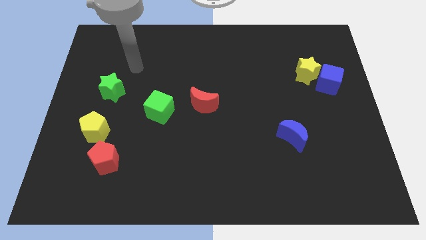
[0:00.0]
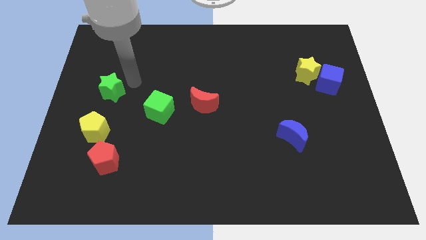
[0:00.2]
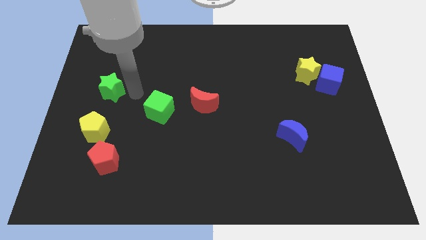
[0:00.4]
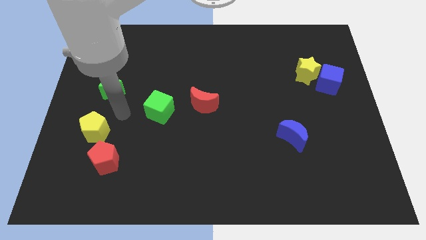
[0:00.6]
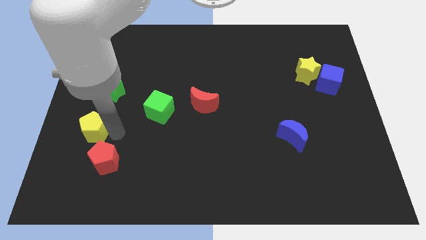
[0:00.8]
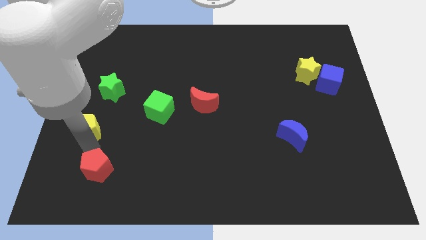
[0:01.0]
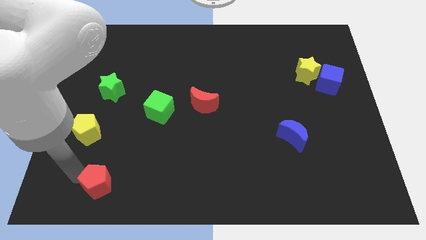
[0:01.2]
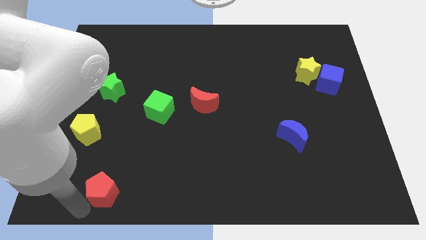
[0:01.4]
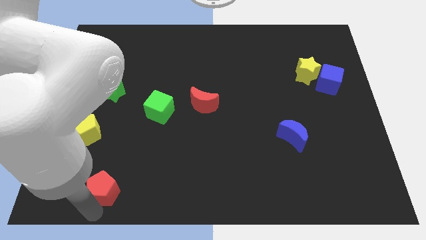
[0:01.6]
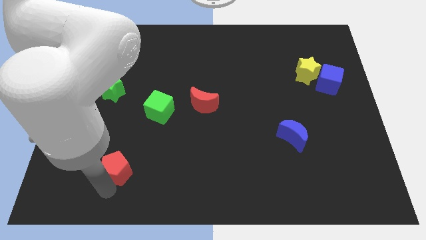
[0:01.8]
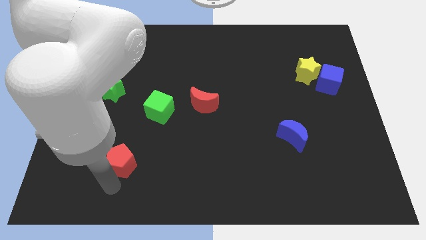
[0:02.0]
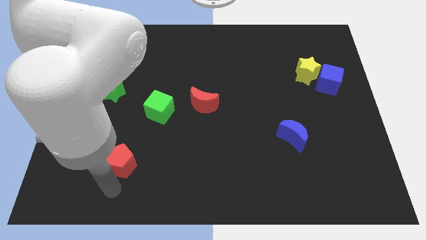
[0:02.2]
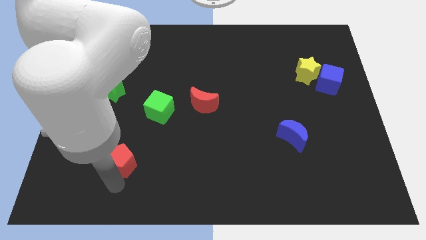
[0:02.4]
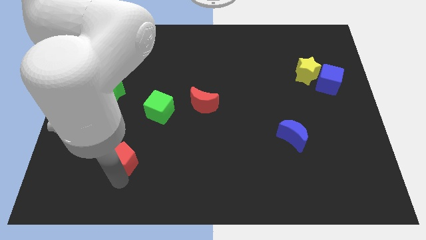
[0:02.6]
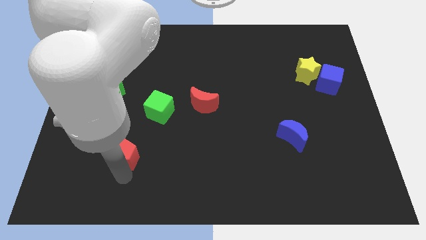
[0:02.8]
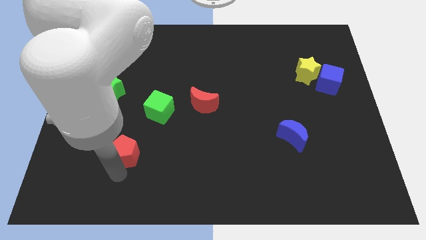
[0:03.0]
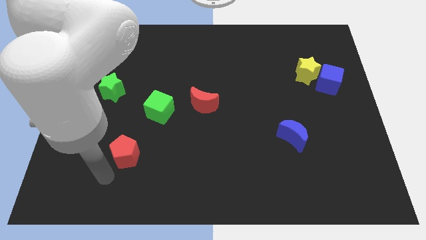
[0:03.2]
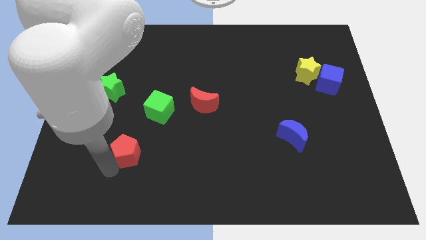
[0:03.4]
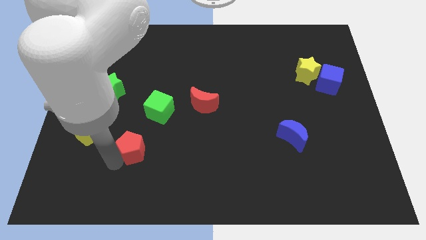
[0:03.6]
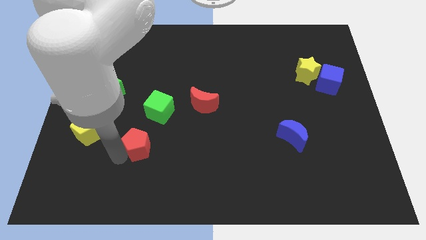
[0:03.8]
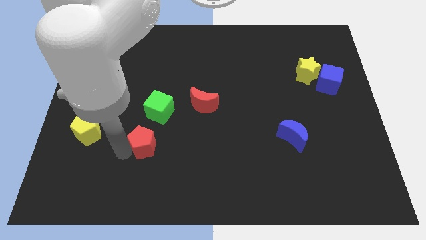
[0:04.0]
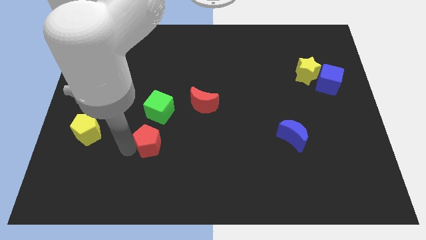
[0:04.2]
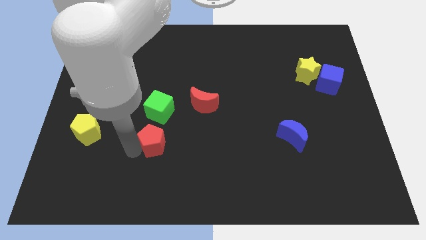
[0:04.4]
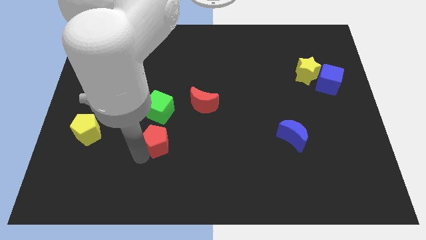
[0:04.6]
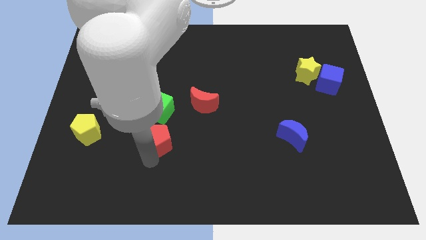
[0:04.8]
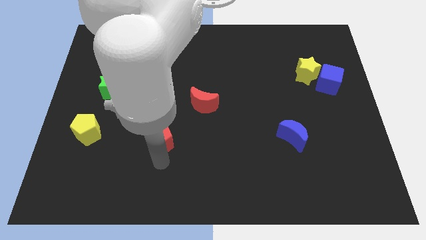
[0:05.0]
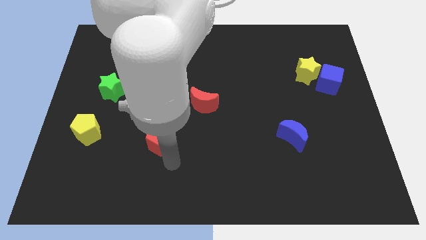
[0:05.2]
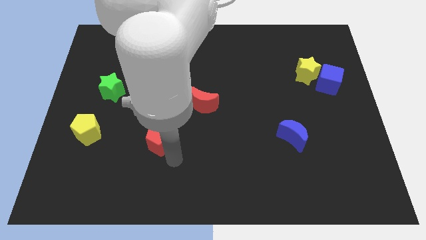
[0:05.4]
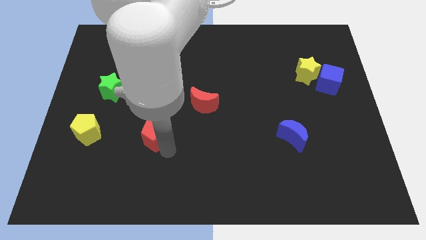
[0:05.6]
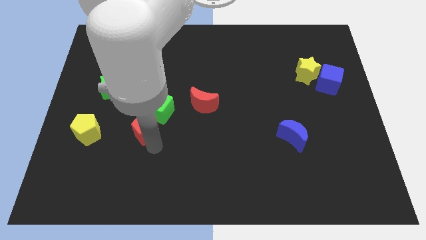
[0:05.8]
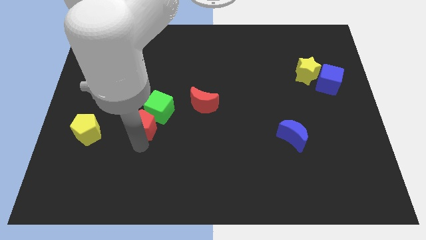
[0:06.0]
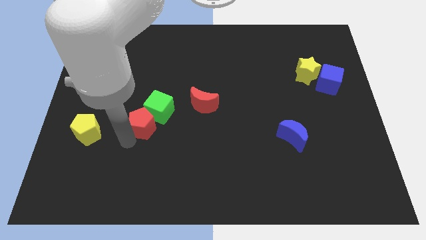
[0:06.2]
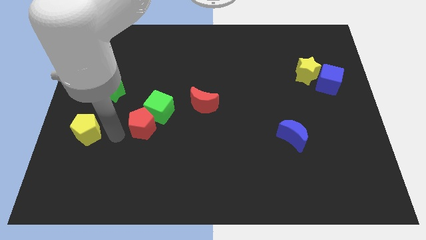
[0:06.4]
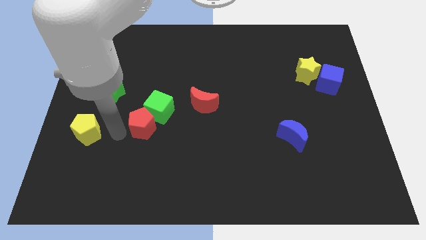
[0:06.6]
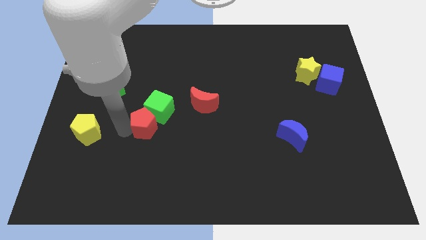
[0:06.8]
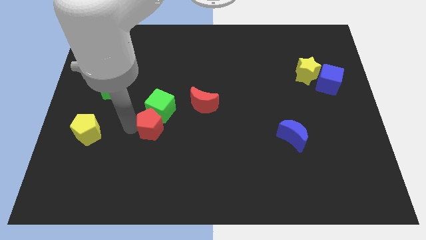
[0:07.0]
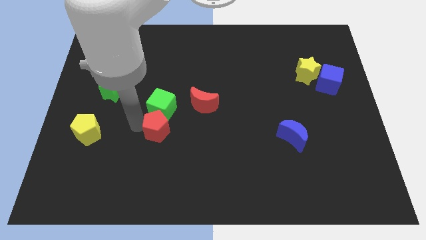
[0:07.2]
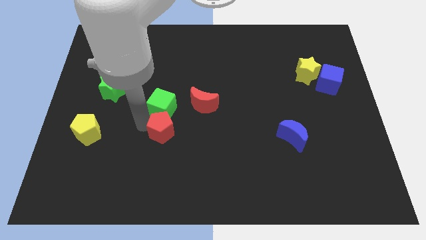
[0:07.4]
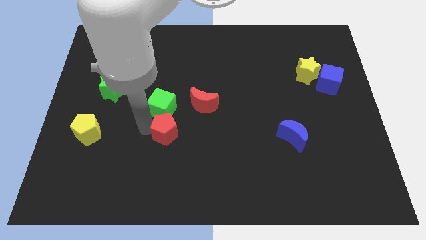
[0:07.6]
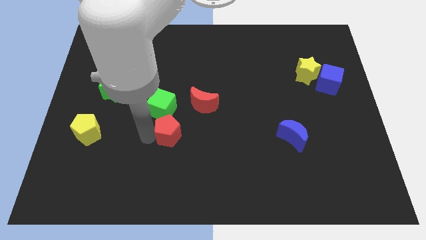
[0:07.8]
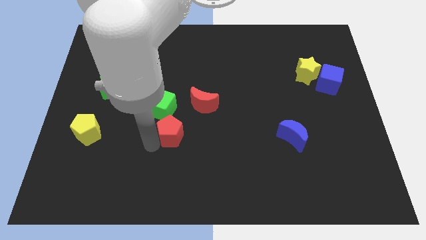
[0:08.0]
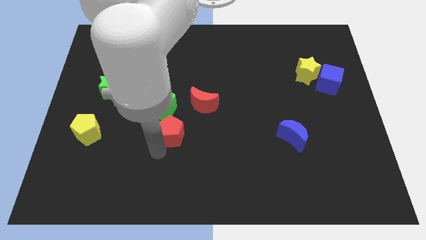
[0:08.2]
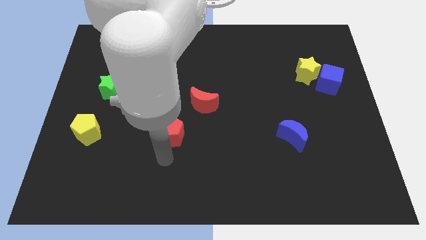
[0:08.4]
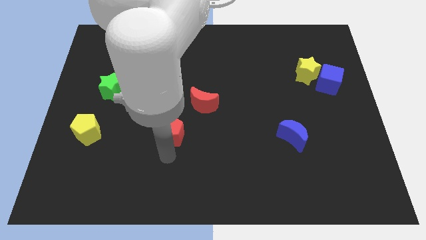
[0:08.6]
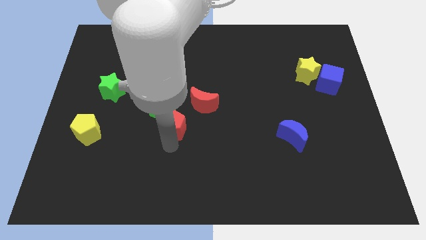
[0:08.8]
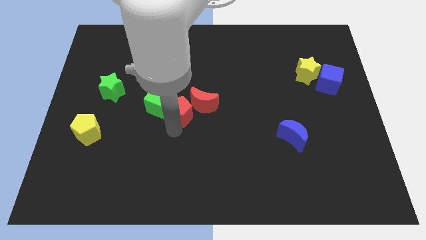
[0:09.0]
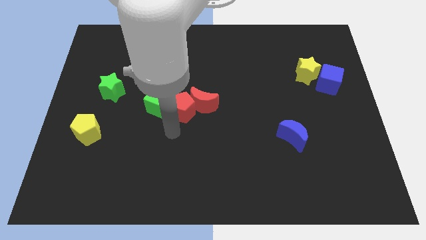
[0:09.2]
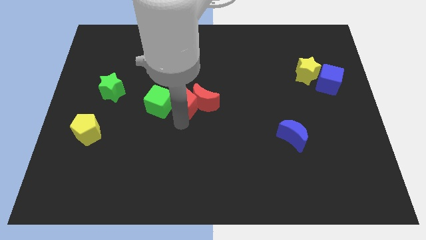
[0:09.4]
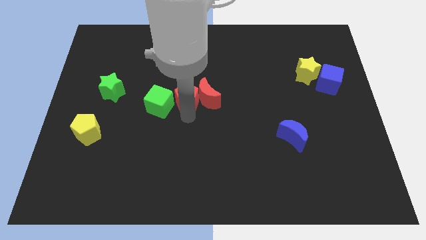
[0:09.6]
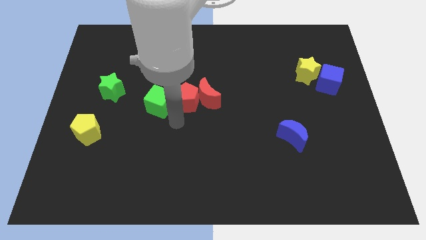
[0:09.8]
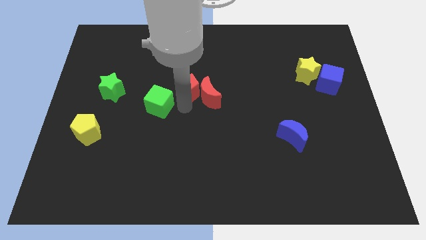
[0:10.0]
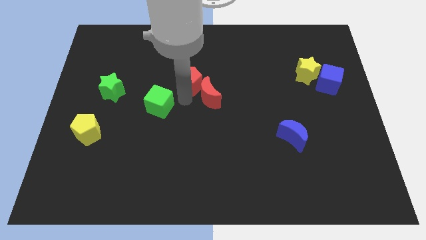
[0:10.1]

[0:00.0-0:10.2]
slide the red pentagon to the top of the red moon

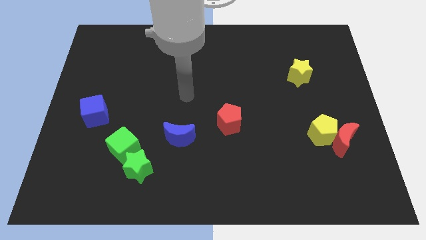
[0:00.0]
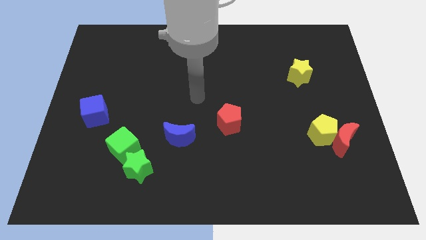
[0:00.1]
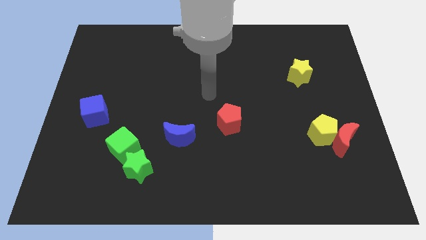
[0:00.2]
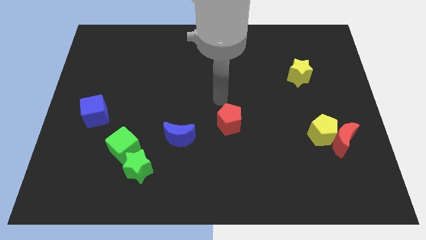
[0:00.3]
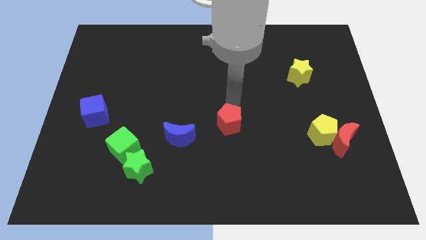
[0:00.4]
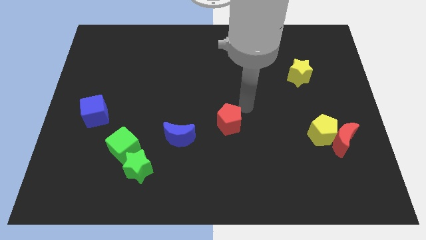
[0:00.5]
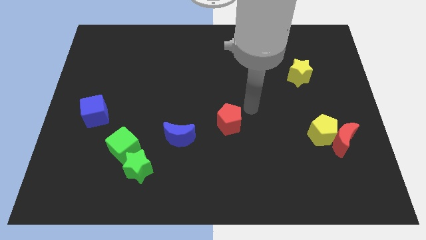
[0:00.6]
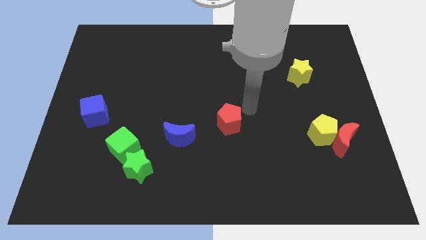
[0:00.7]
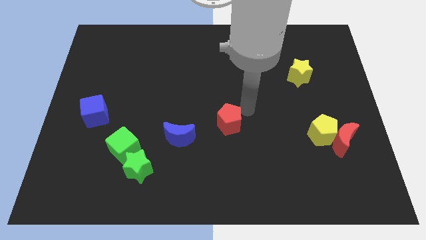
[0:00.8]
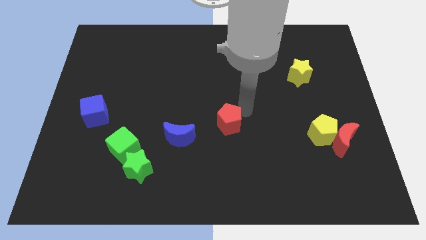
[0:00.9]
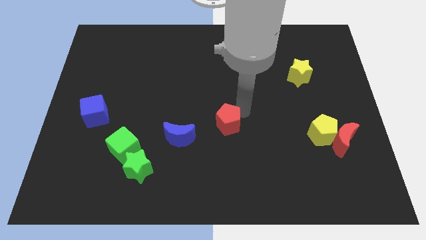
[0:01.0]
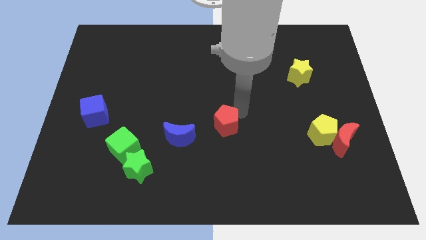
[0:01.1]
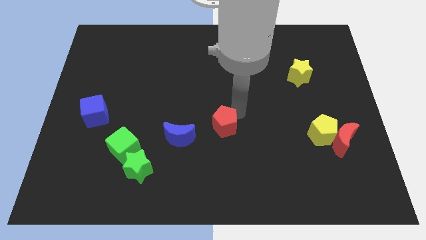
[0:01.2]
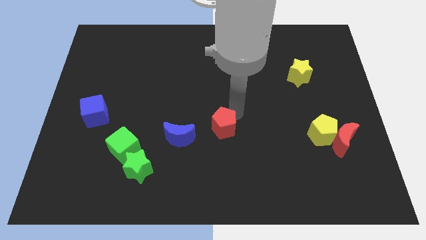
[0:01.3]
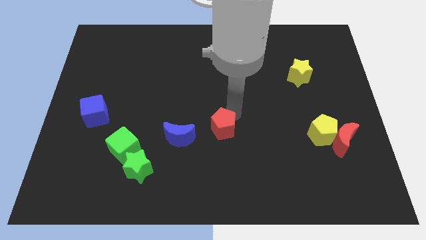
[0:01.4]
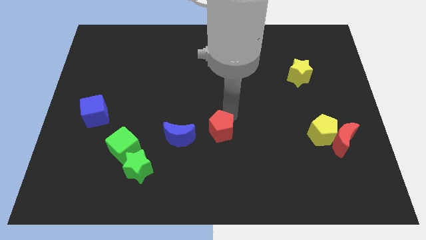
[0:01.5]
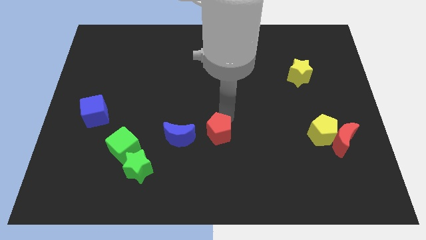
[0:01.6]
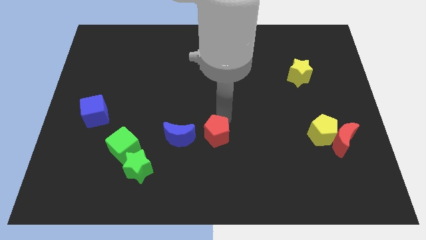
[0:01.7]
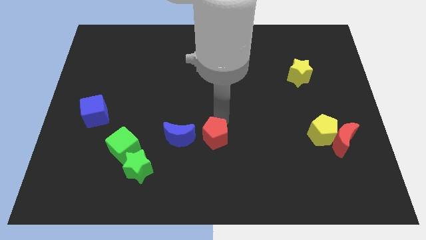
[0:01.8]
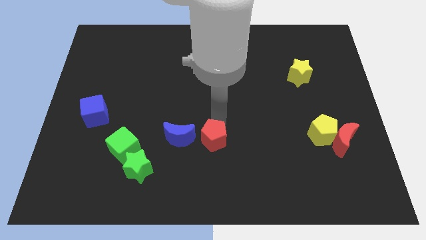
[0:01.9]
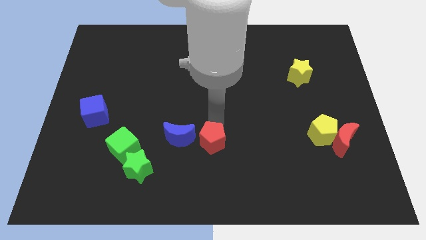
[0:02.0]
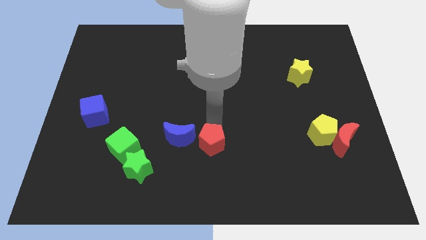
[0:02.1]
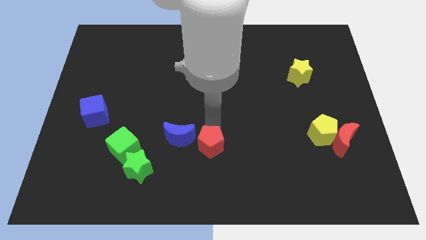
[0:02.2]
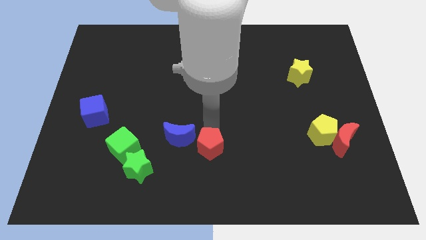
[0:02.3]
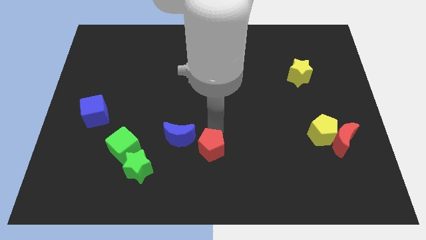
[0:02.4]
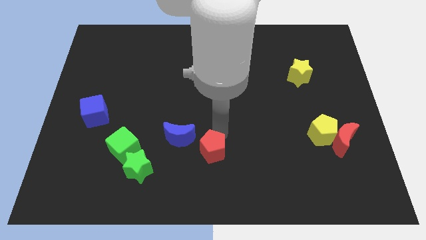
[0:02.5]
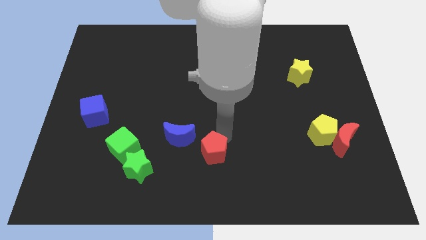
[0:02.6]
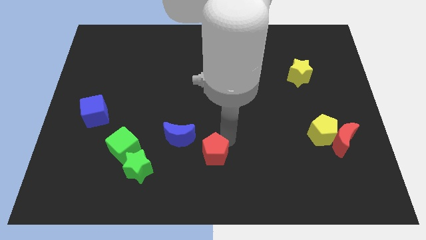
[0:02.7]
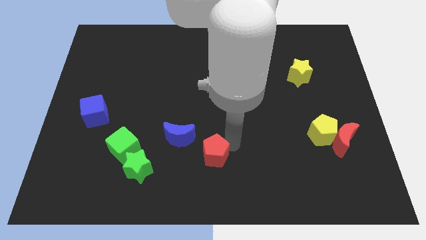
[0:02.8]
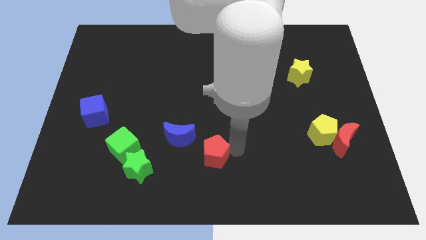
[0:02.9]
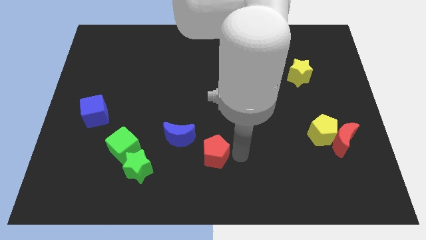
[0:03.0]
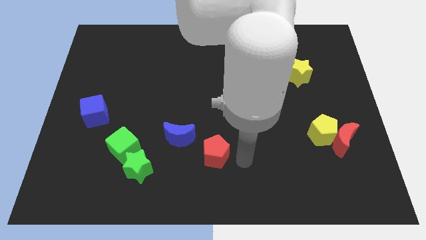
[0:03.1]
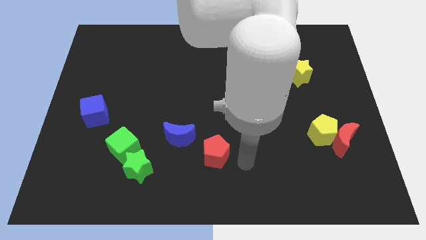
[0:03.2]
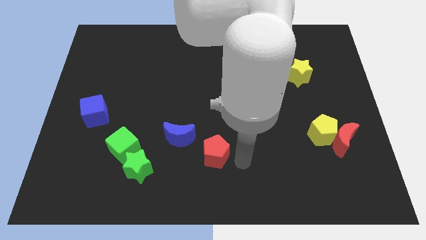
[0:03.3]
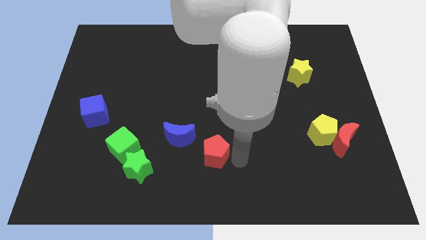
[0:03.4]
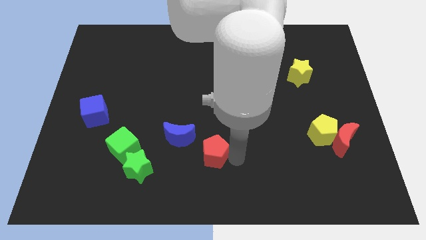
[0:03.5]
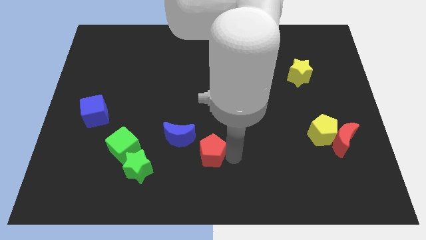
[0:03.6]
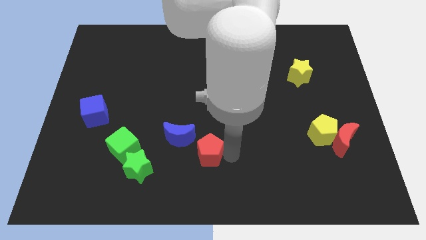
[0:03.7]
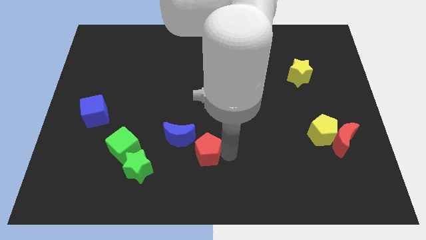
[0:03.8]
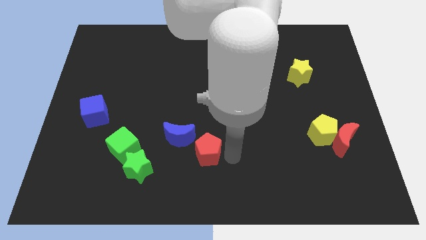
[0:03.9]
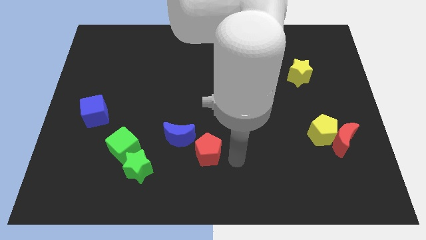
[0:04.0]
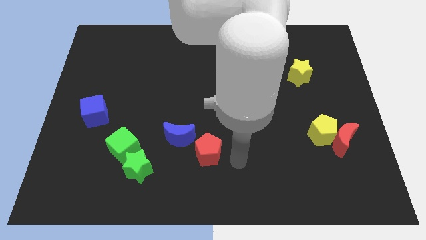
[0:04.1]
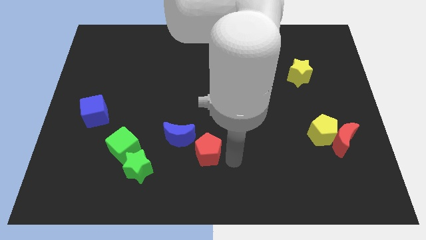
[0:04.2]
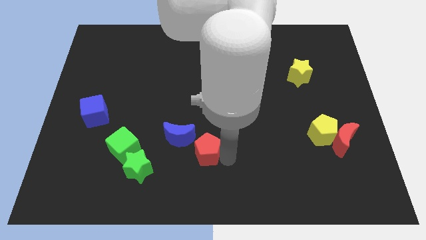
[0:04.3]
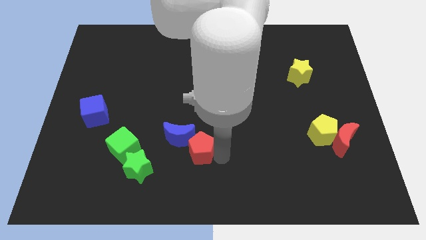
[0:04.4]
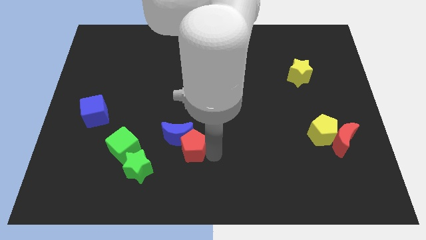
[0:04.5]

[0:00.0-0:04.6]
put the red pentagon to the right side of the green cube
